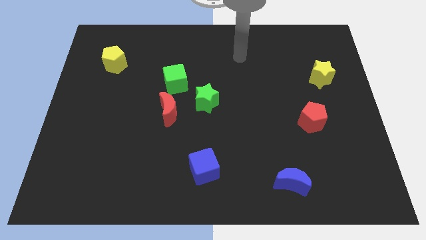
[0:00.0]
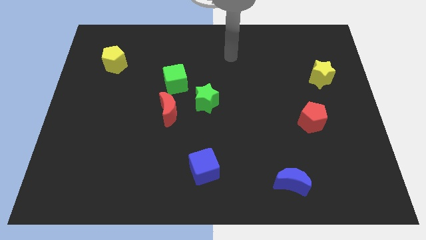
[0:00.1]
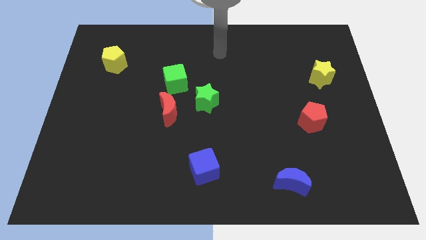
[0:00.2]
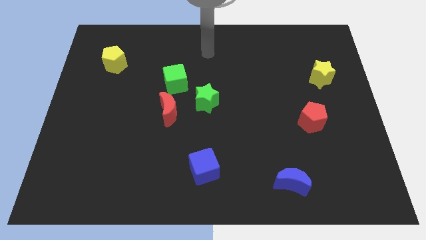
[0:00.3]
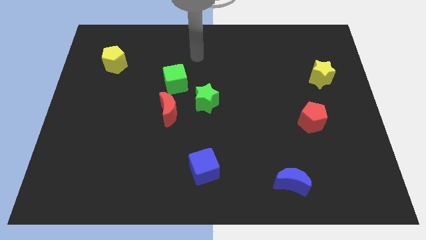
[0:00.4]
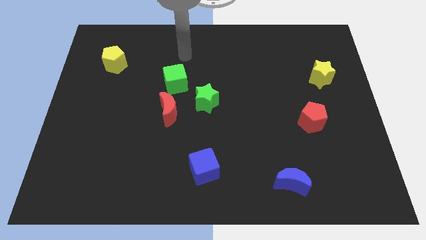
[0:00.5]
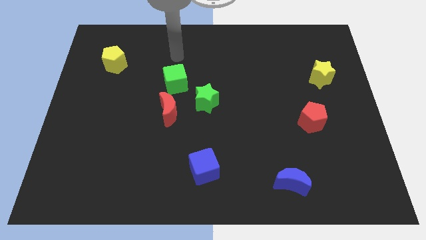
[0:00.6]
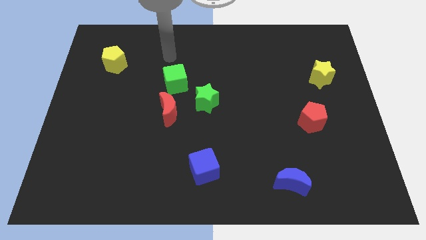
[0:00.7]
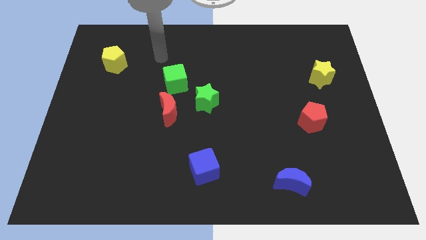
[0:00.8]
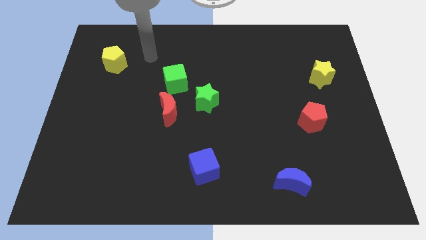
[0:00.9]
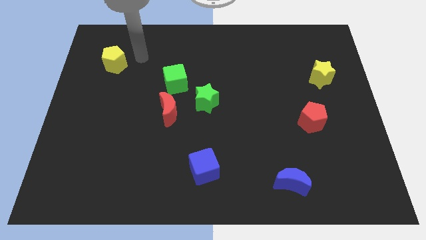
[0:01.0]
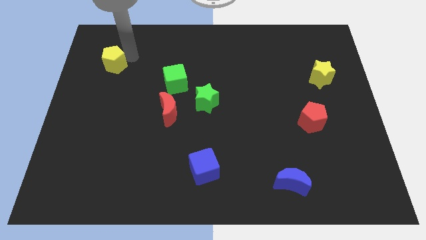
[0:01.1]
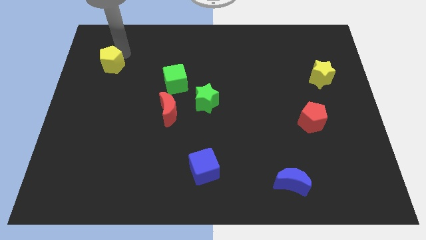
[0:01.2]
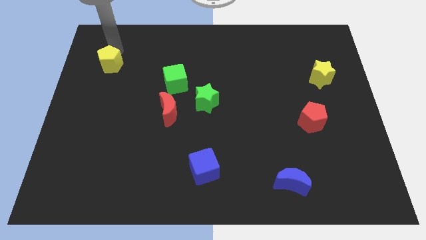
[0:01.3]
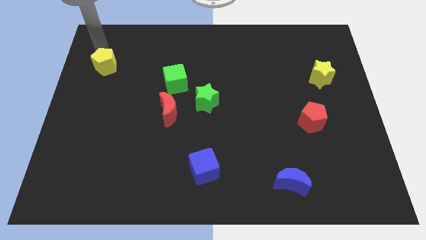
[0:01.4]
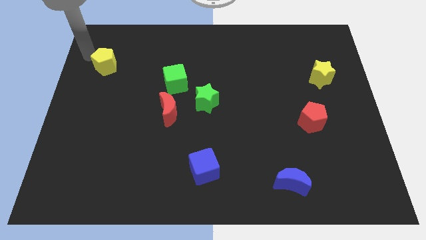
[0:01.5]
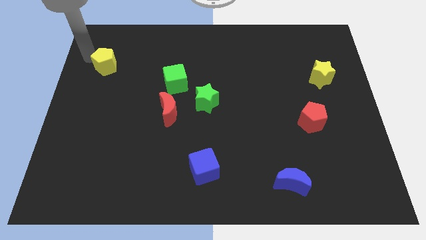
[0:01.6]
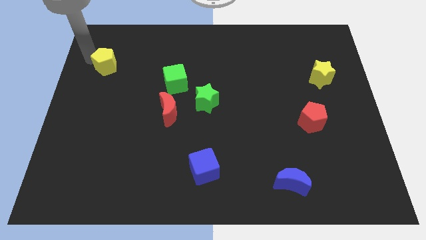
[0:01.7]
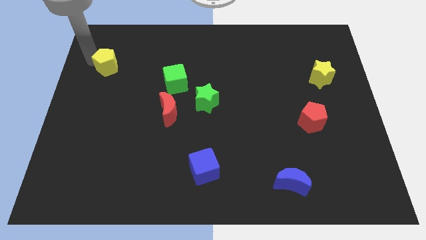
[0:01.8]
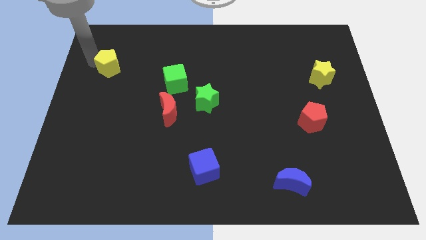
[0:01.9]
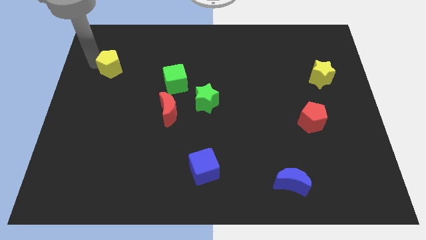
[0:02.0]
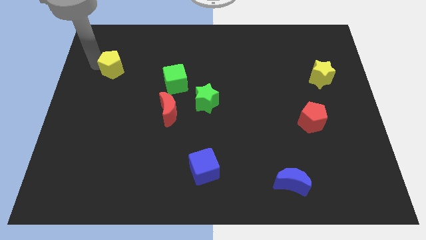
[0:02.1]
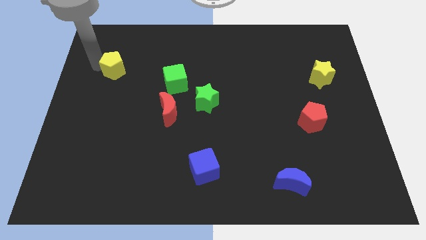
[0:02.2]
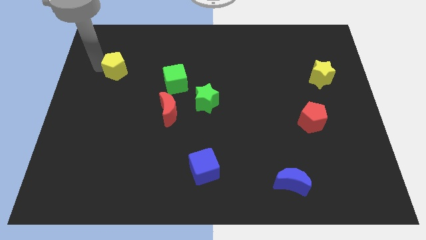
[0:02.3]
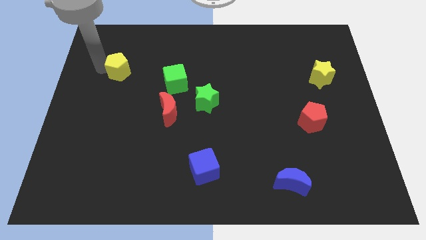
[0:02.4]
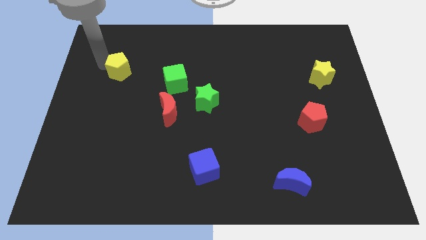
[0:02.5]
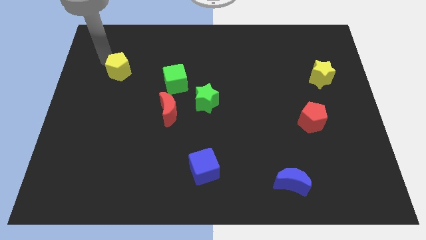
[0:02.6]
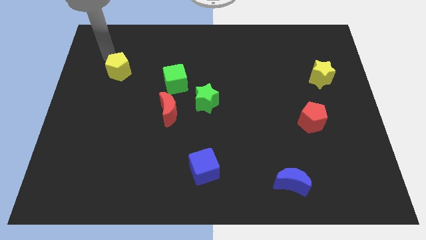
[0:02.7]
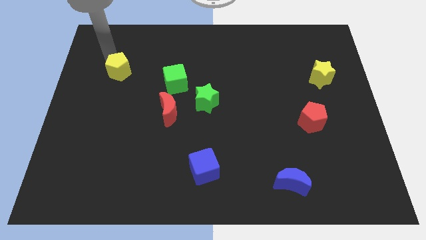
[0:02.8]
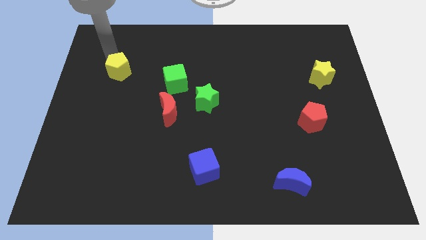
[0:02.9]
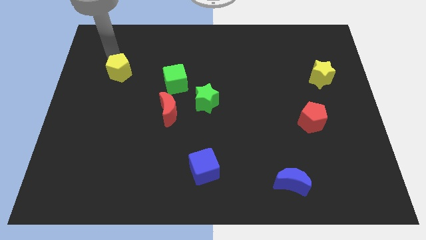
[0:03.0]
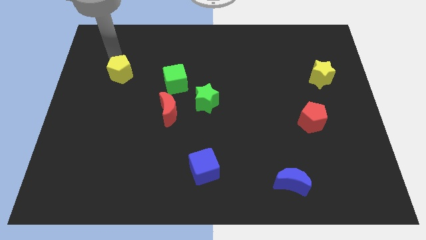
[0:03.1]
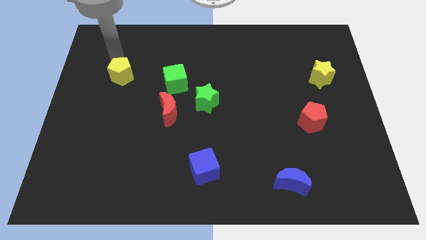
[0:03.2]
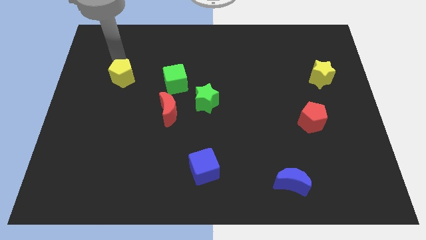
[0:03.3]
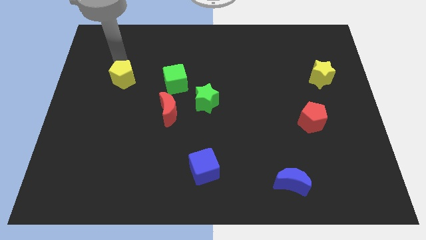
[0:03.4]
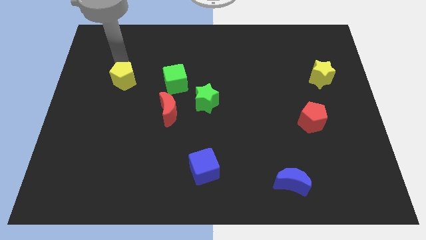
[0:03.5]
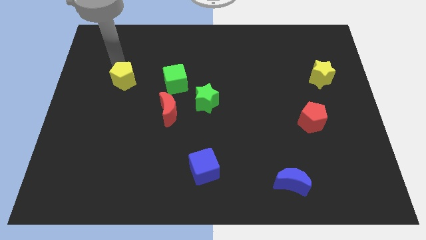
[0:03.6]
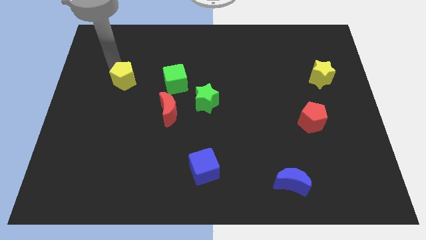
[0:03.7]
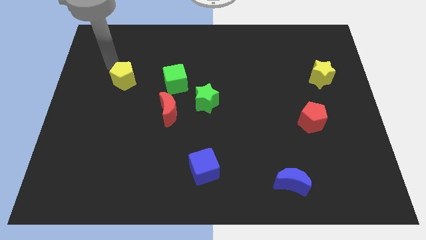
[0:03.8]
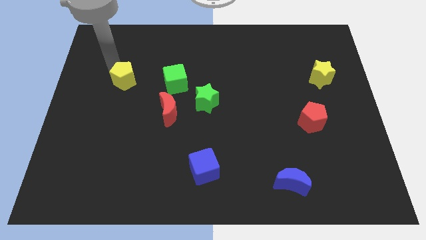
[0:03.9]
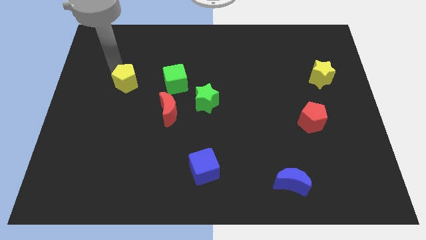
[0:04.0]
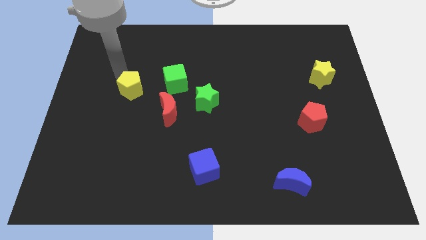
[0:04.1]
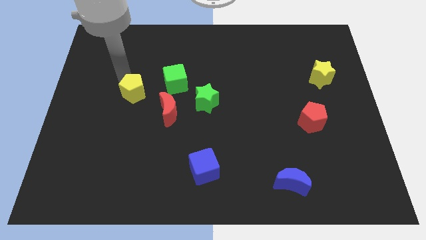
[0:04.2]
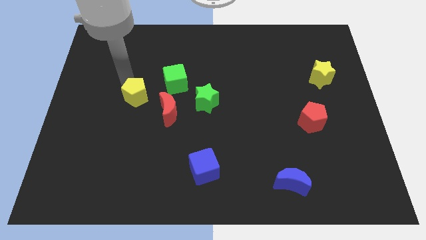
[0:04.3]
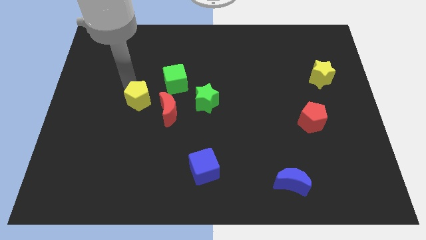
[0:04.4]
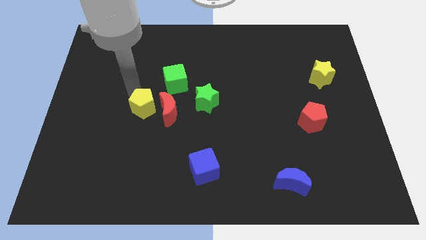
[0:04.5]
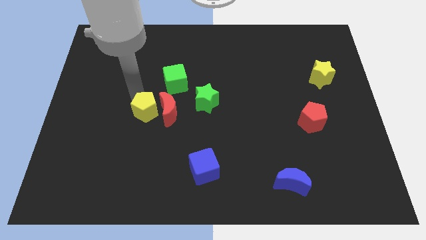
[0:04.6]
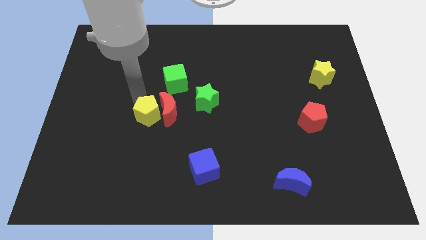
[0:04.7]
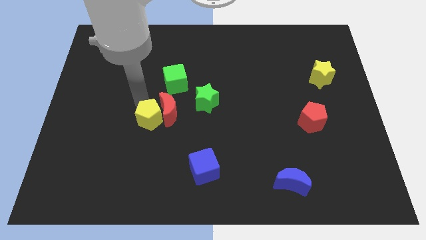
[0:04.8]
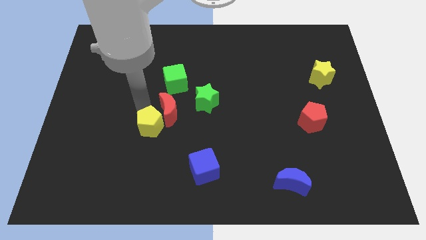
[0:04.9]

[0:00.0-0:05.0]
push the yellow pentagon down and then to the right

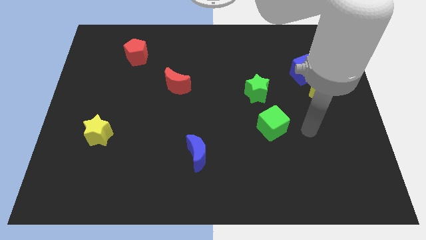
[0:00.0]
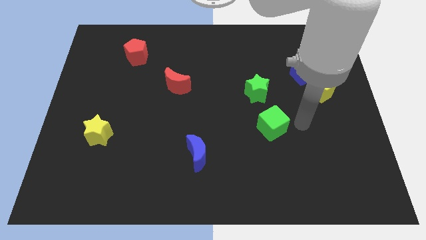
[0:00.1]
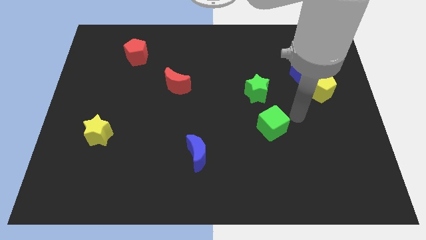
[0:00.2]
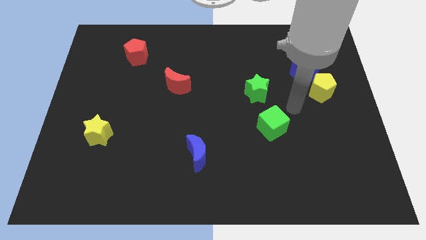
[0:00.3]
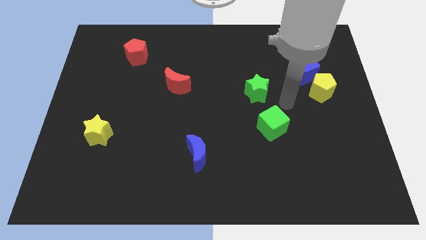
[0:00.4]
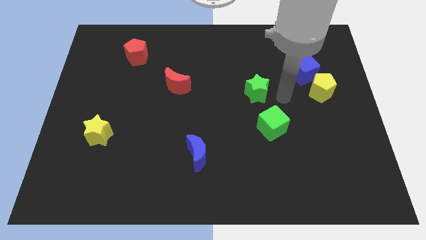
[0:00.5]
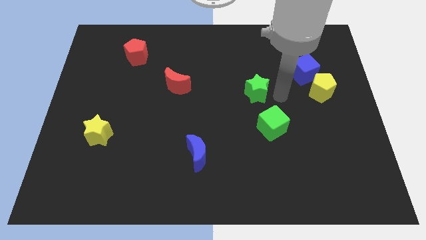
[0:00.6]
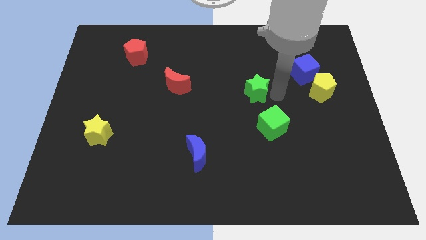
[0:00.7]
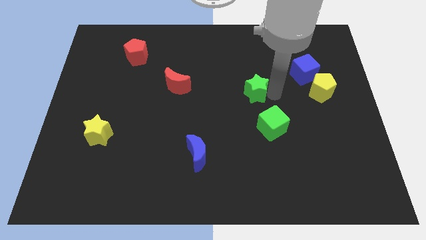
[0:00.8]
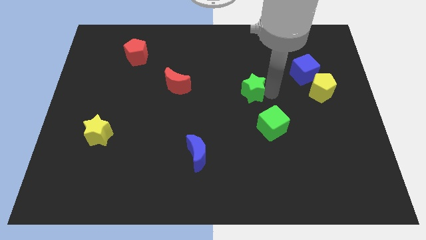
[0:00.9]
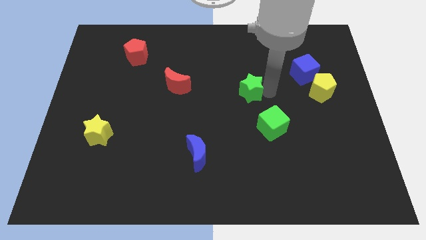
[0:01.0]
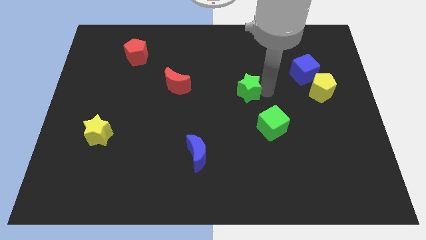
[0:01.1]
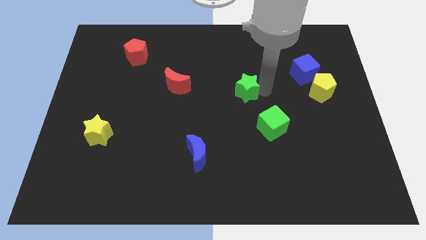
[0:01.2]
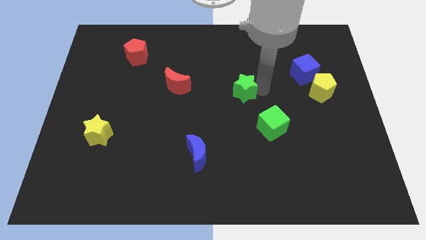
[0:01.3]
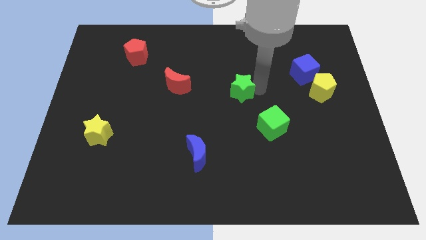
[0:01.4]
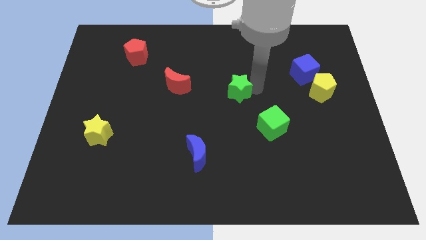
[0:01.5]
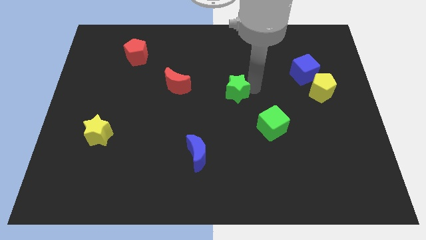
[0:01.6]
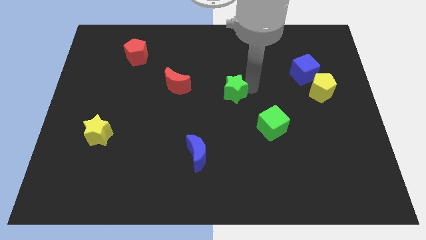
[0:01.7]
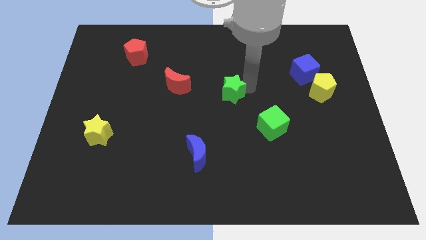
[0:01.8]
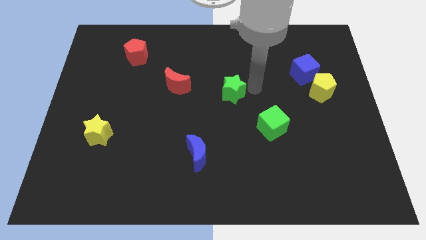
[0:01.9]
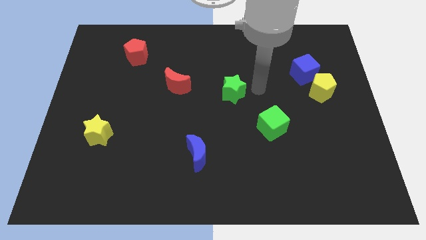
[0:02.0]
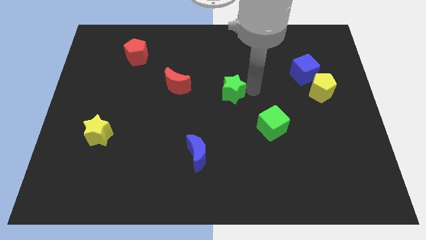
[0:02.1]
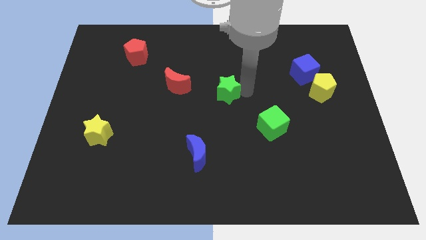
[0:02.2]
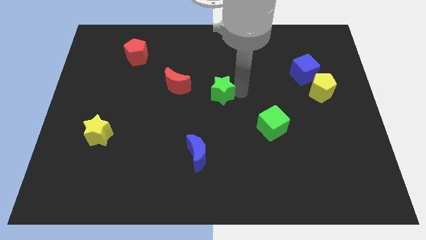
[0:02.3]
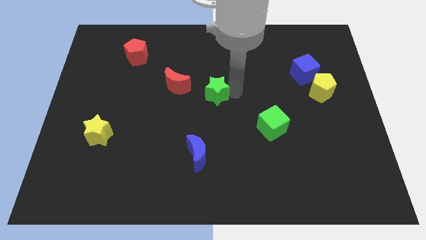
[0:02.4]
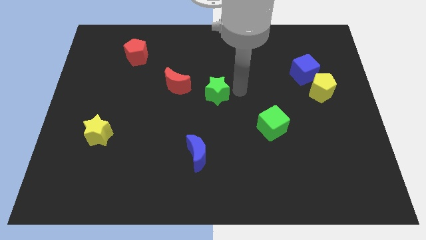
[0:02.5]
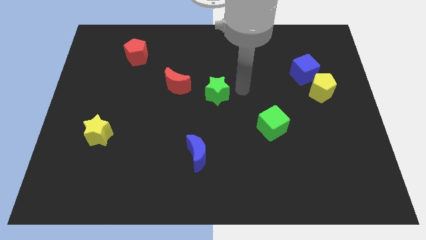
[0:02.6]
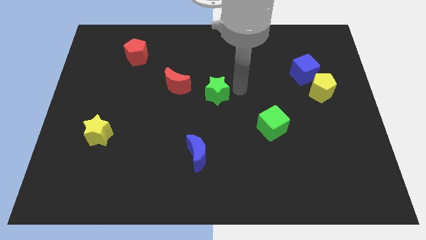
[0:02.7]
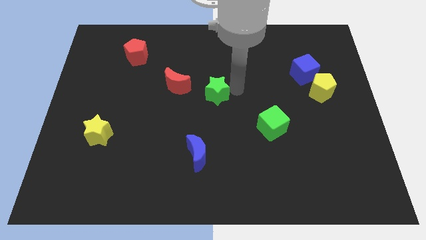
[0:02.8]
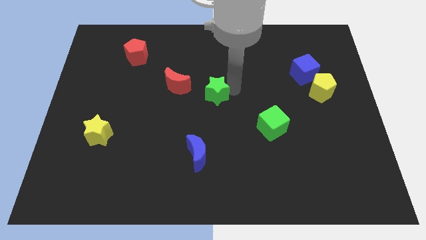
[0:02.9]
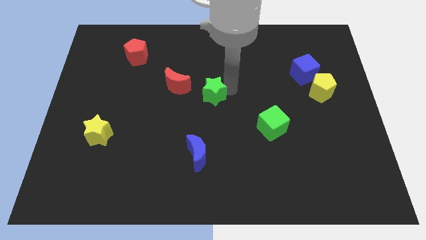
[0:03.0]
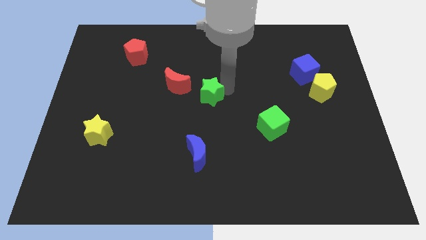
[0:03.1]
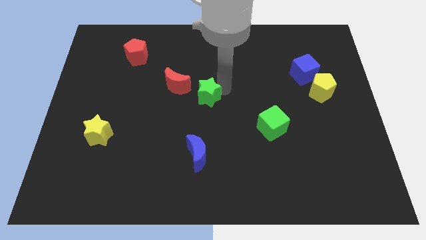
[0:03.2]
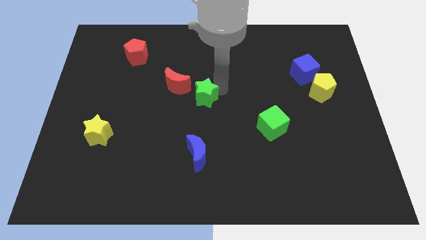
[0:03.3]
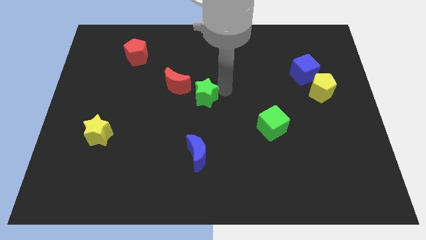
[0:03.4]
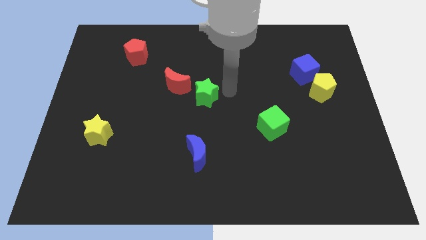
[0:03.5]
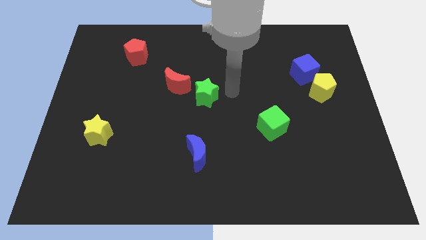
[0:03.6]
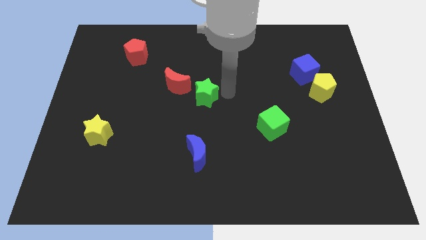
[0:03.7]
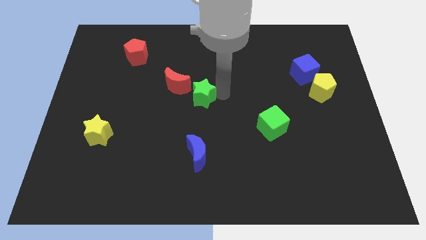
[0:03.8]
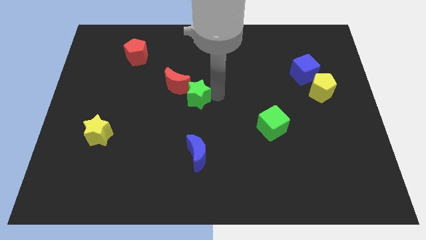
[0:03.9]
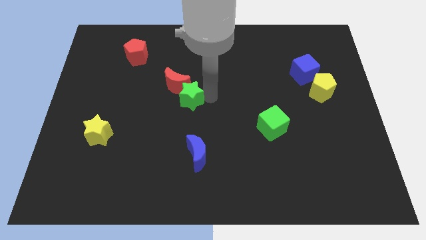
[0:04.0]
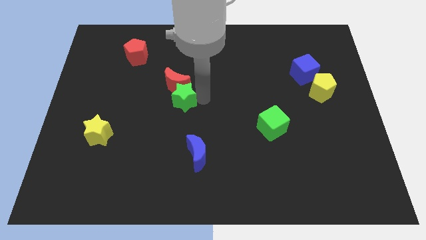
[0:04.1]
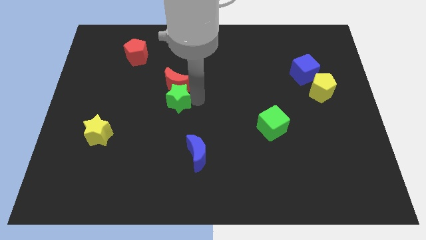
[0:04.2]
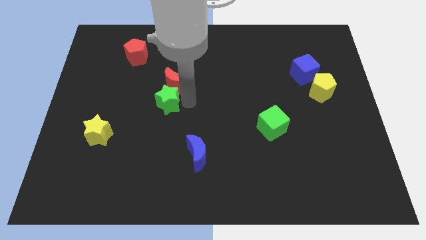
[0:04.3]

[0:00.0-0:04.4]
move the green star to the left
